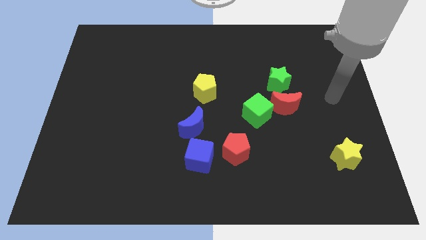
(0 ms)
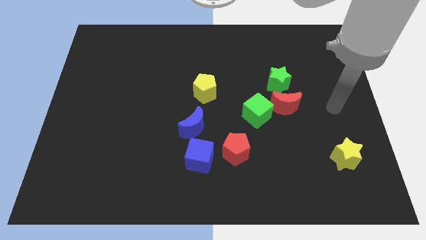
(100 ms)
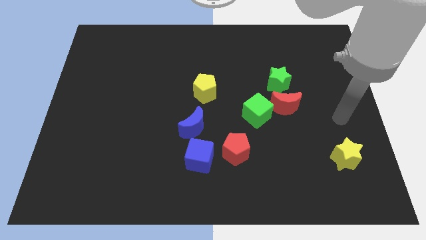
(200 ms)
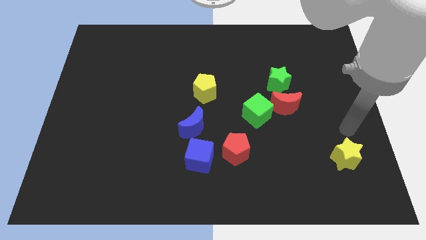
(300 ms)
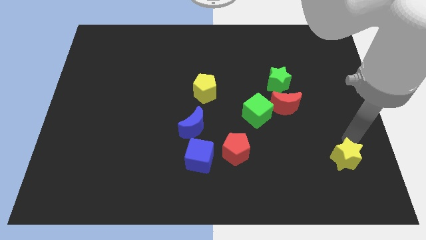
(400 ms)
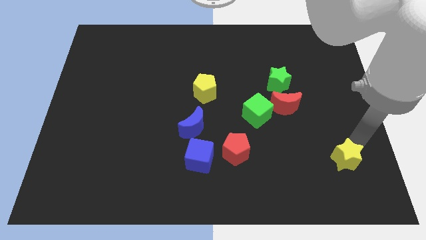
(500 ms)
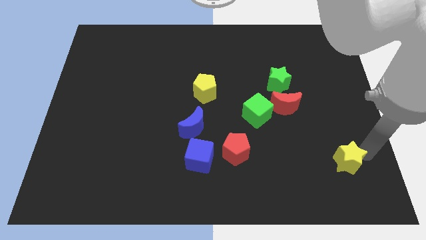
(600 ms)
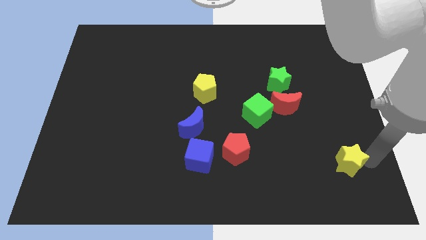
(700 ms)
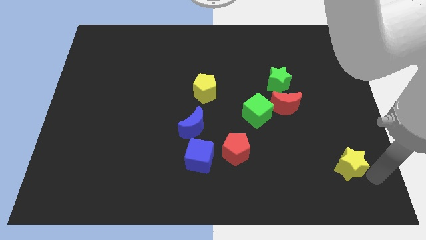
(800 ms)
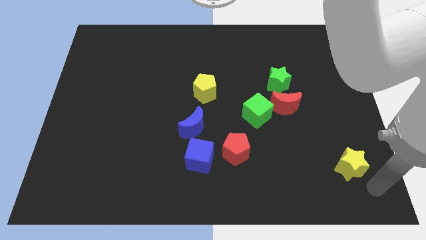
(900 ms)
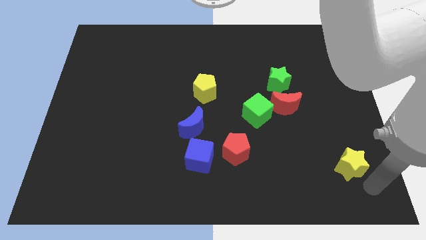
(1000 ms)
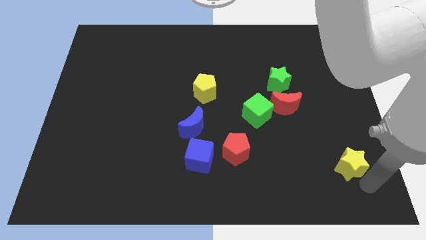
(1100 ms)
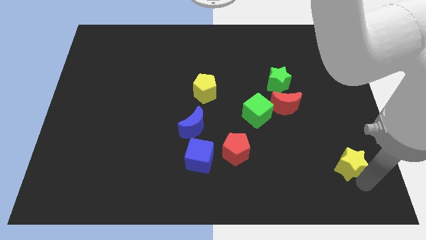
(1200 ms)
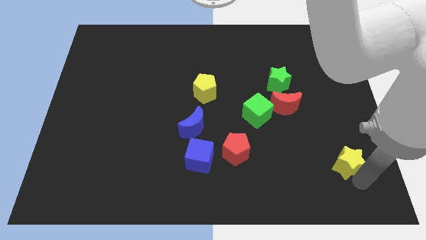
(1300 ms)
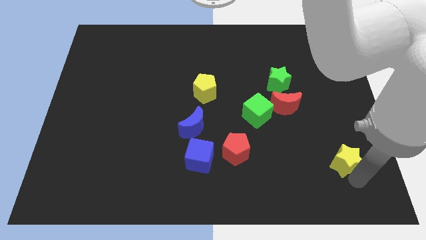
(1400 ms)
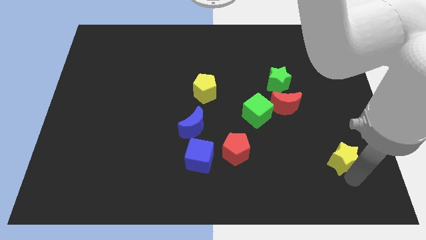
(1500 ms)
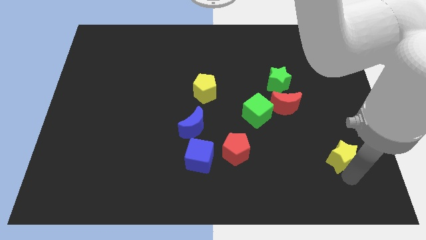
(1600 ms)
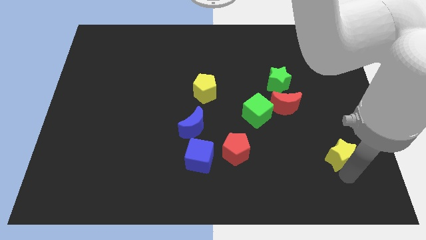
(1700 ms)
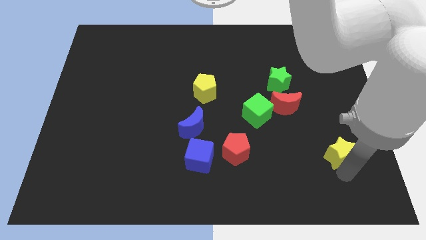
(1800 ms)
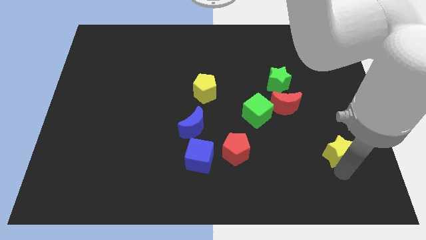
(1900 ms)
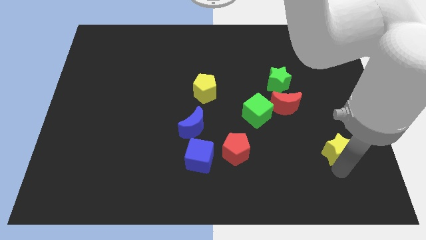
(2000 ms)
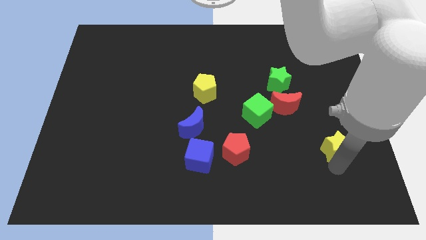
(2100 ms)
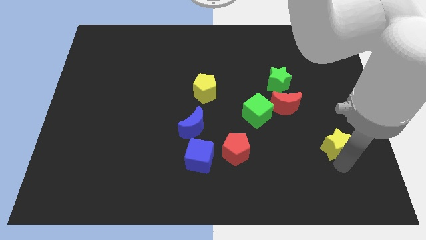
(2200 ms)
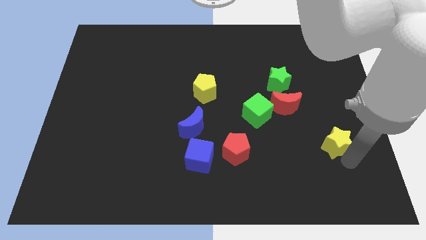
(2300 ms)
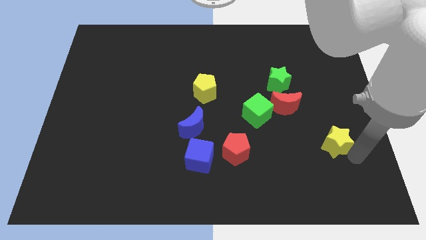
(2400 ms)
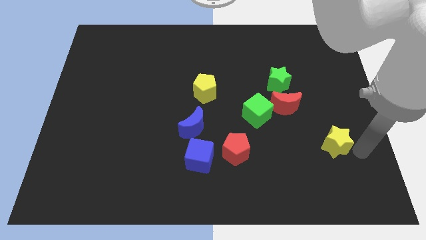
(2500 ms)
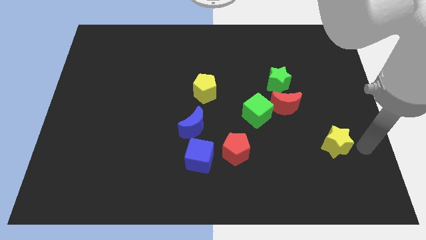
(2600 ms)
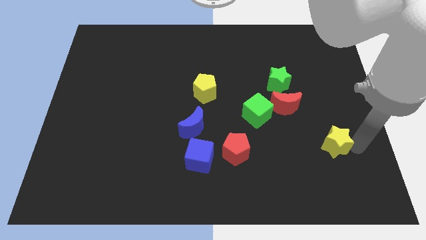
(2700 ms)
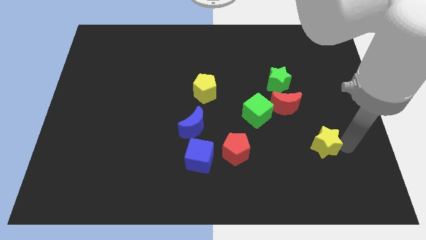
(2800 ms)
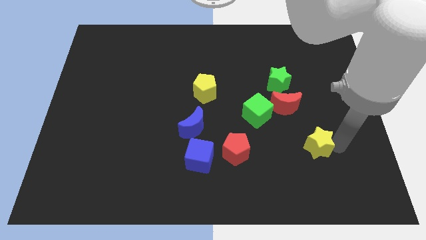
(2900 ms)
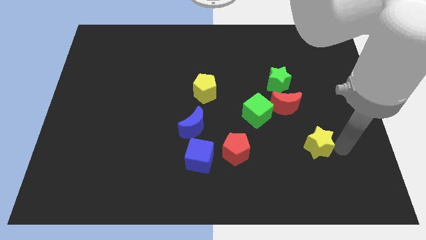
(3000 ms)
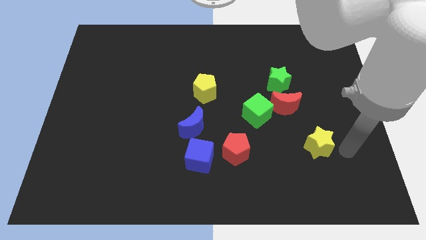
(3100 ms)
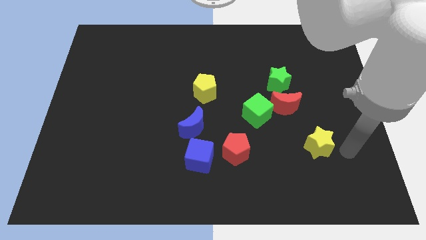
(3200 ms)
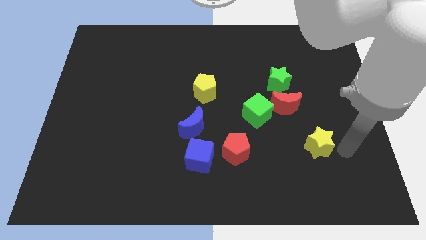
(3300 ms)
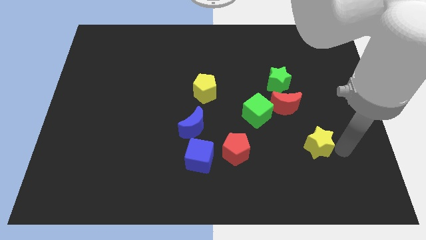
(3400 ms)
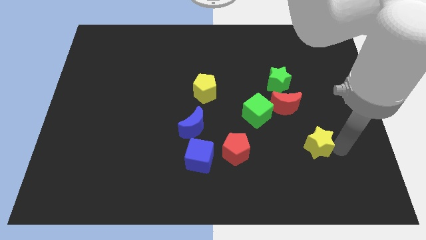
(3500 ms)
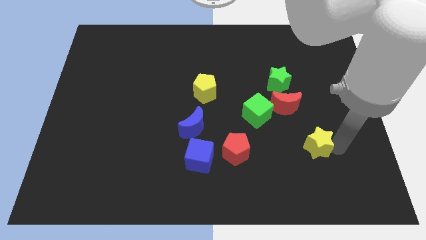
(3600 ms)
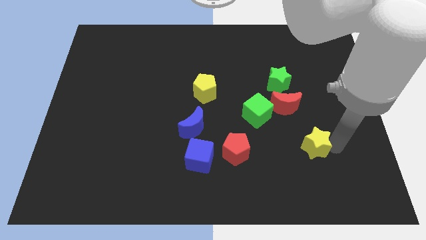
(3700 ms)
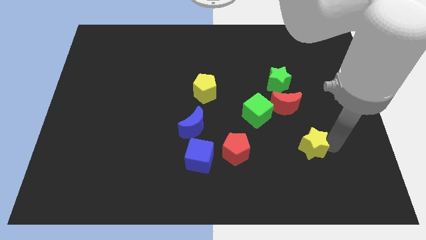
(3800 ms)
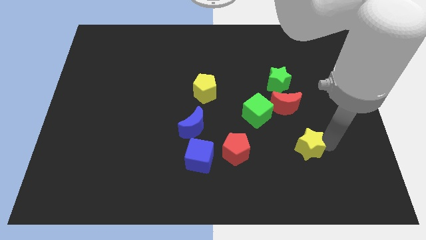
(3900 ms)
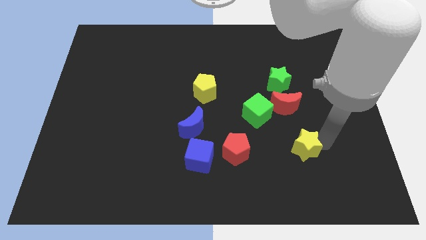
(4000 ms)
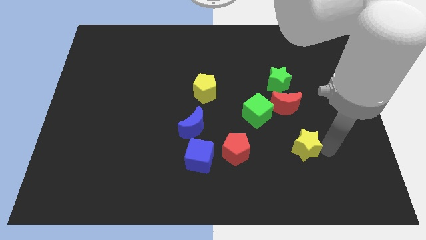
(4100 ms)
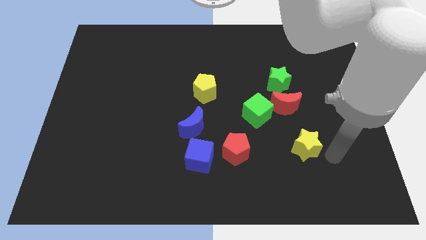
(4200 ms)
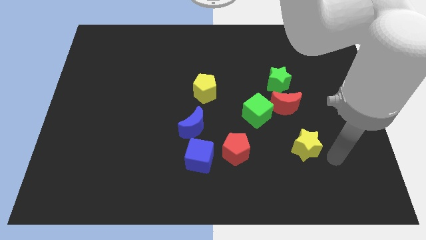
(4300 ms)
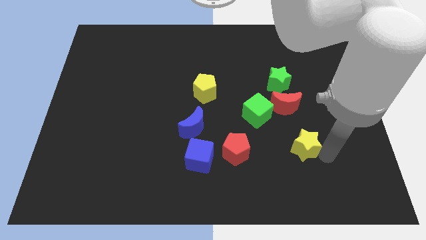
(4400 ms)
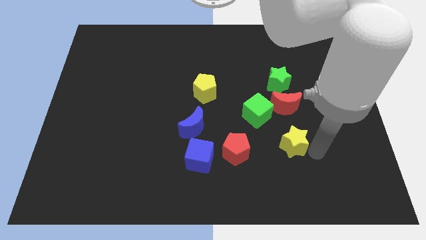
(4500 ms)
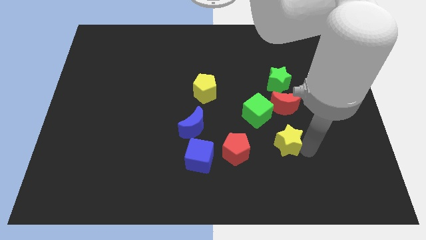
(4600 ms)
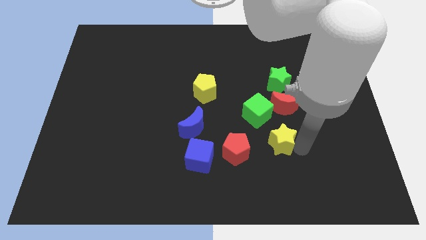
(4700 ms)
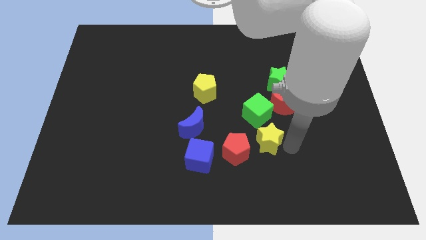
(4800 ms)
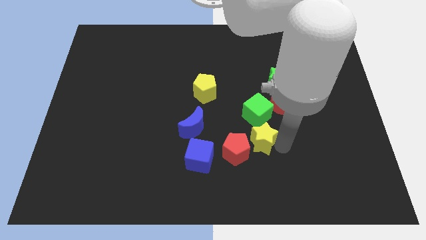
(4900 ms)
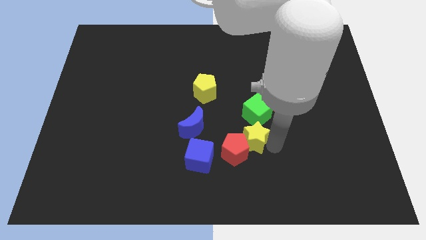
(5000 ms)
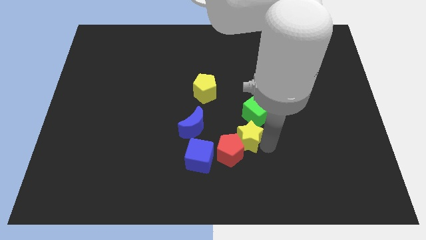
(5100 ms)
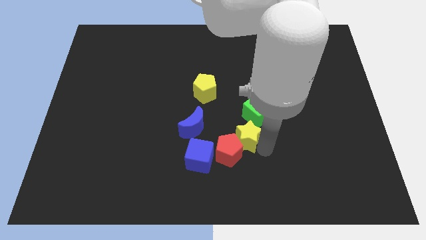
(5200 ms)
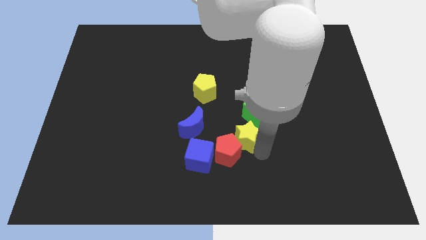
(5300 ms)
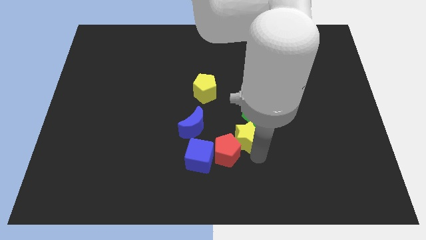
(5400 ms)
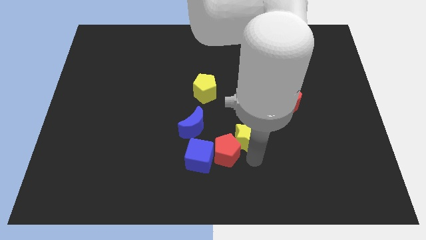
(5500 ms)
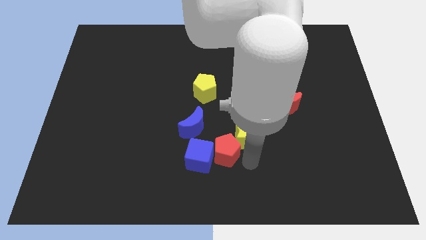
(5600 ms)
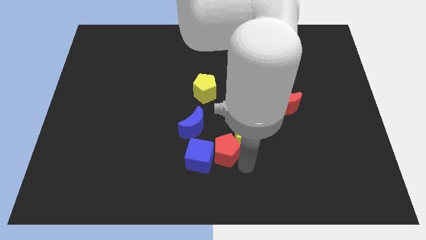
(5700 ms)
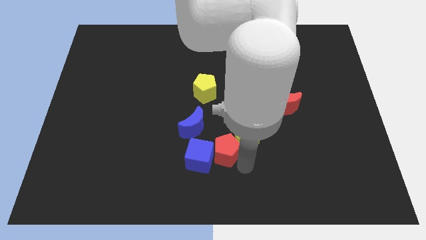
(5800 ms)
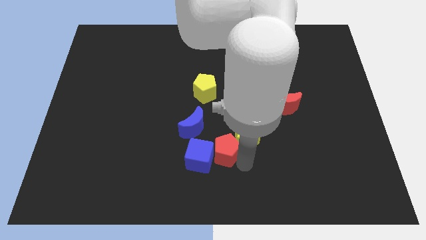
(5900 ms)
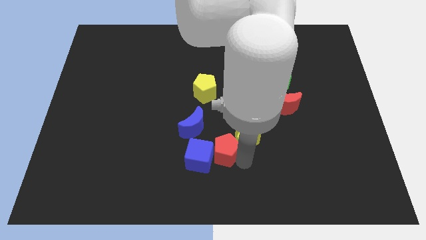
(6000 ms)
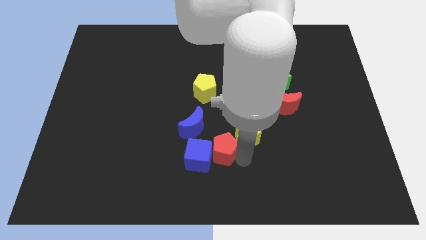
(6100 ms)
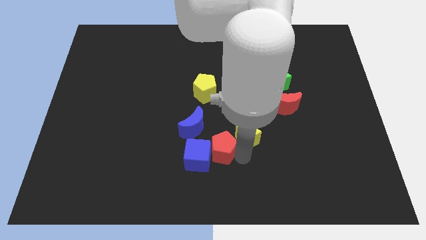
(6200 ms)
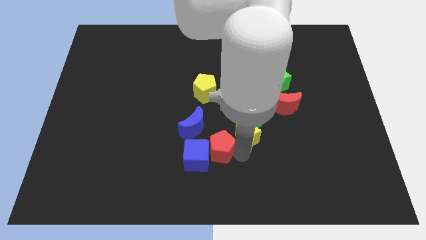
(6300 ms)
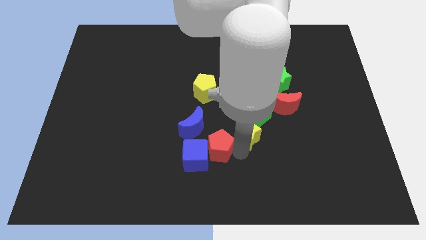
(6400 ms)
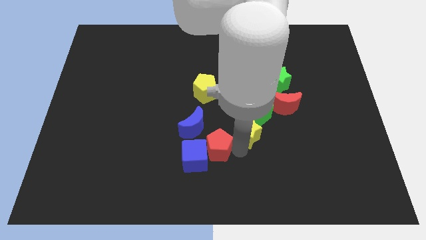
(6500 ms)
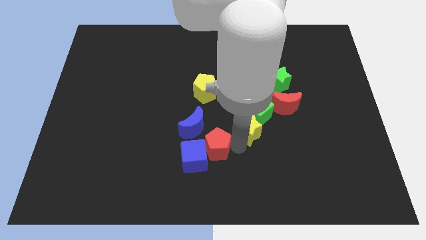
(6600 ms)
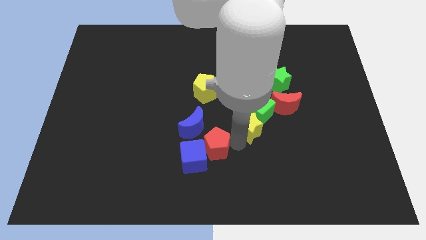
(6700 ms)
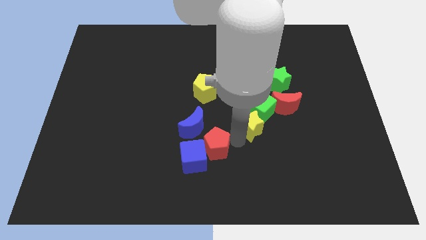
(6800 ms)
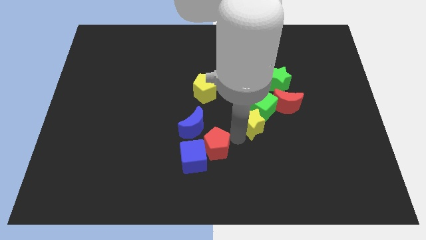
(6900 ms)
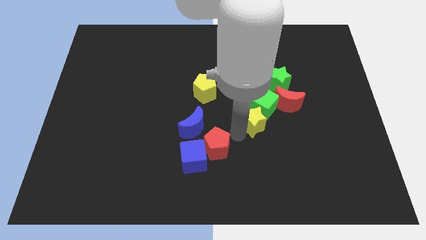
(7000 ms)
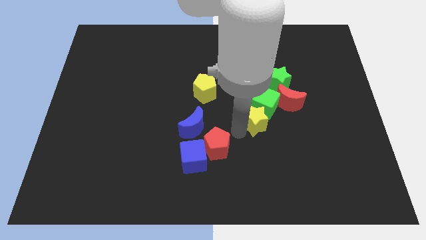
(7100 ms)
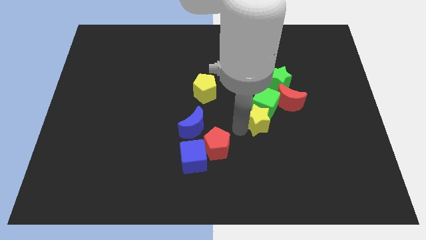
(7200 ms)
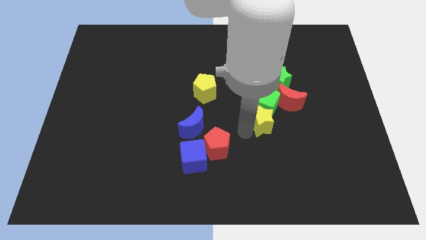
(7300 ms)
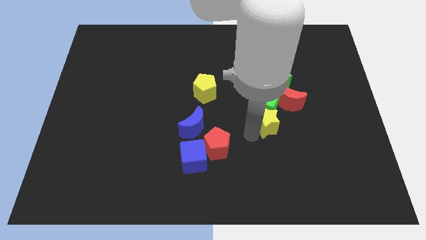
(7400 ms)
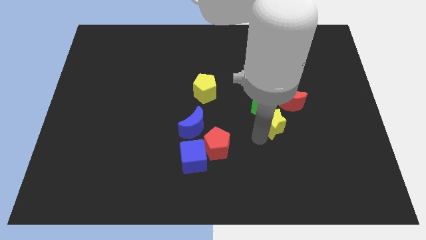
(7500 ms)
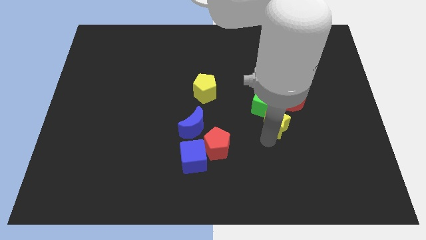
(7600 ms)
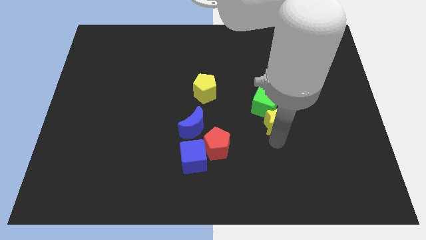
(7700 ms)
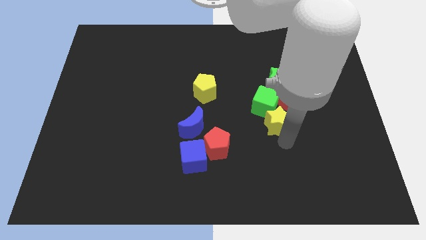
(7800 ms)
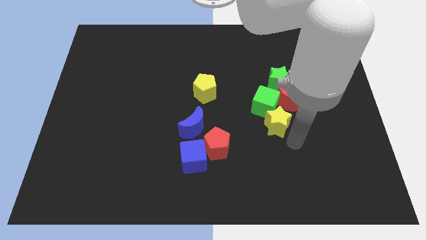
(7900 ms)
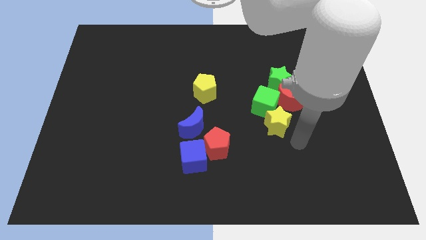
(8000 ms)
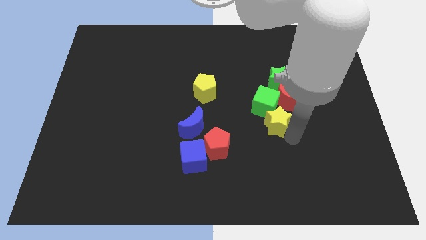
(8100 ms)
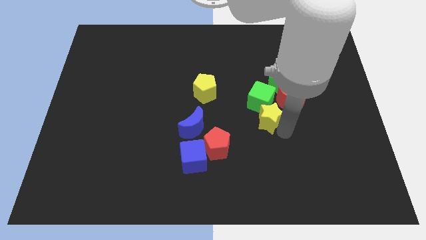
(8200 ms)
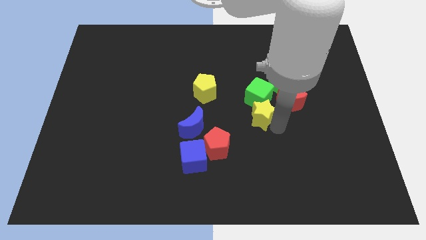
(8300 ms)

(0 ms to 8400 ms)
push the yellow star just left of the red moon
